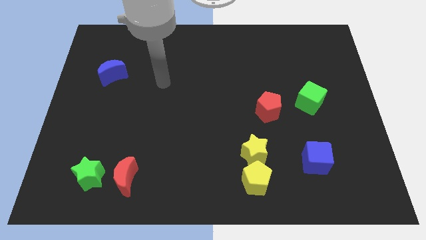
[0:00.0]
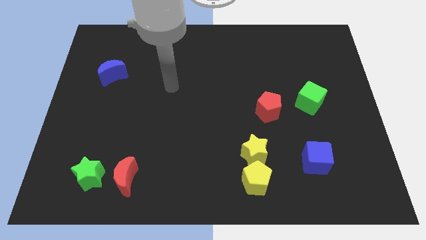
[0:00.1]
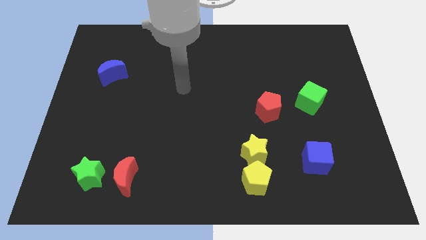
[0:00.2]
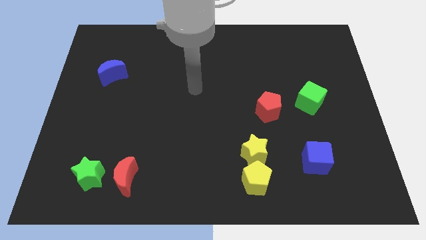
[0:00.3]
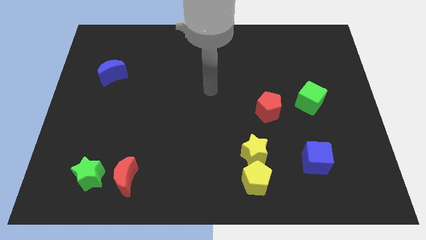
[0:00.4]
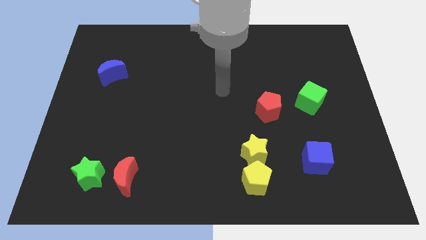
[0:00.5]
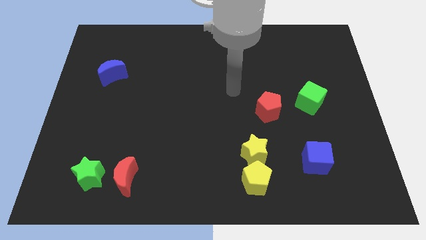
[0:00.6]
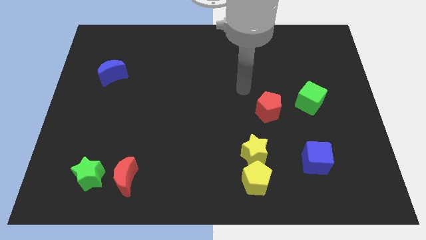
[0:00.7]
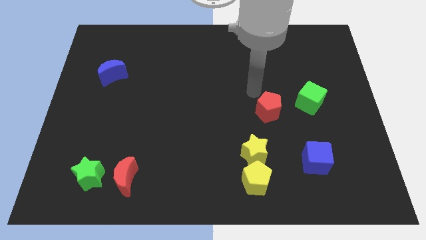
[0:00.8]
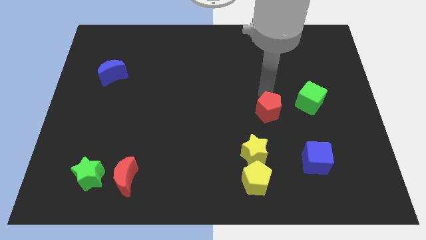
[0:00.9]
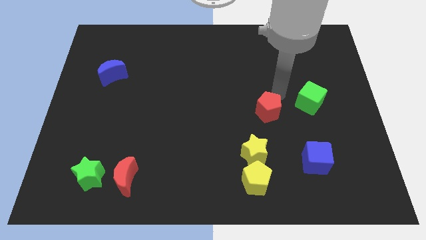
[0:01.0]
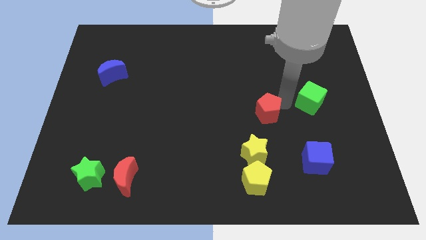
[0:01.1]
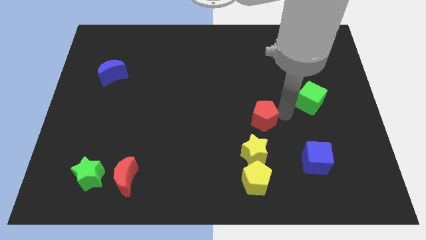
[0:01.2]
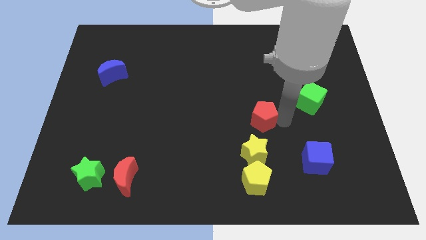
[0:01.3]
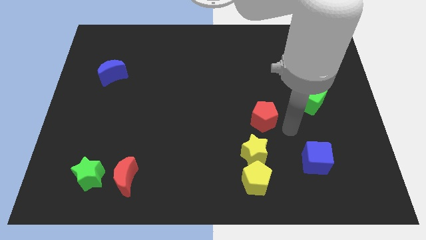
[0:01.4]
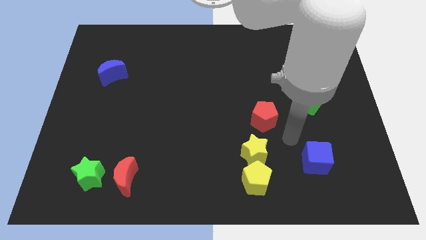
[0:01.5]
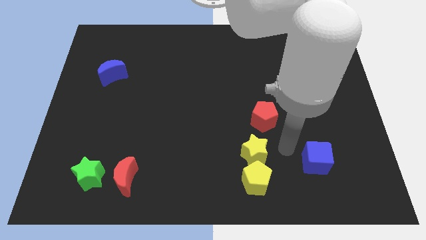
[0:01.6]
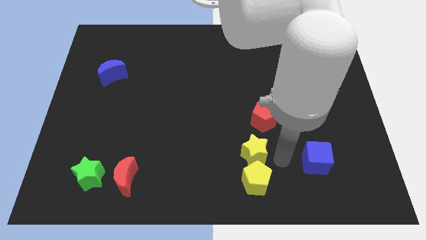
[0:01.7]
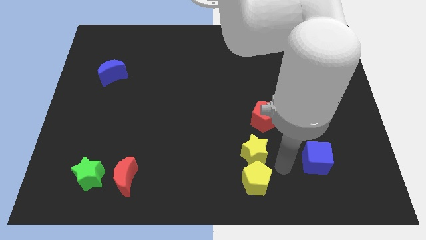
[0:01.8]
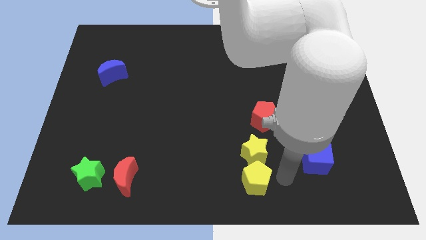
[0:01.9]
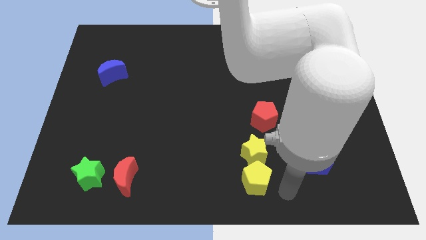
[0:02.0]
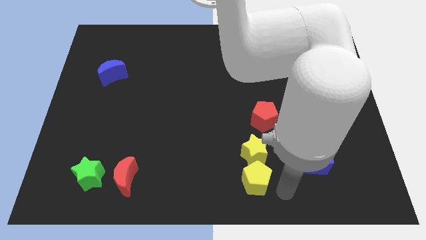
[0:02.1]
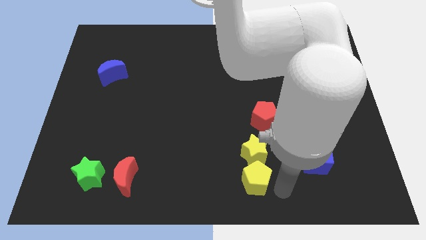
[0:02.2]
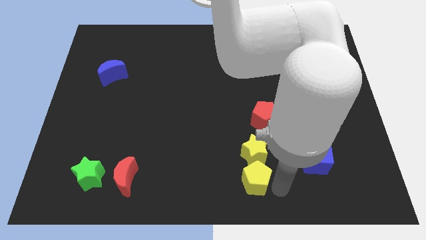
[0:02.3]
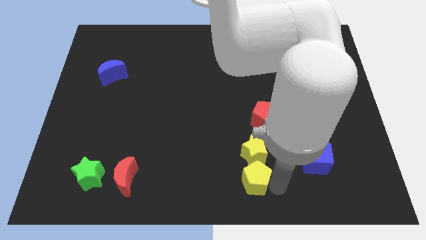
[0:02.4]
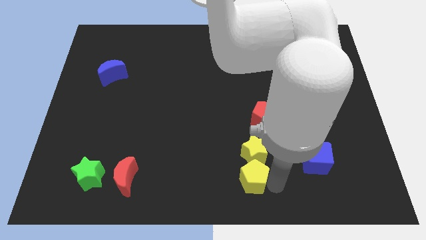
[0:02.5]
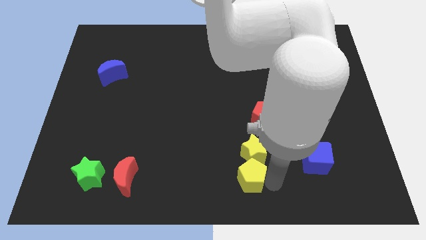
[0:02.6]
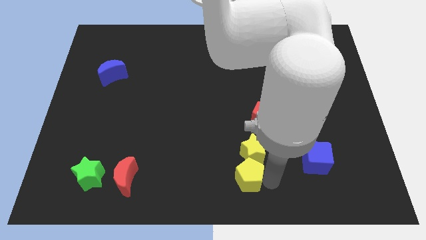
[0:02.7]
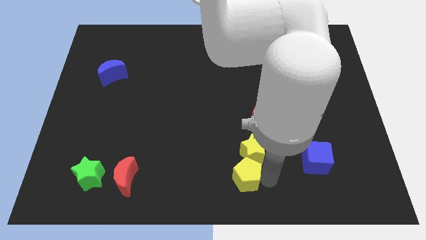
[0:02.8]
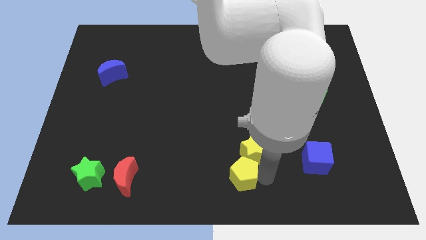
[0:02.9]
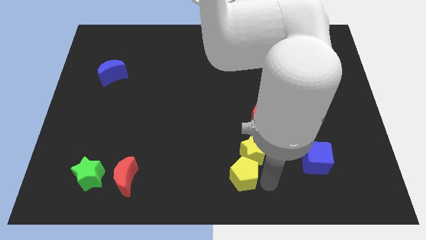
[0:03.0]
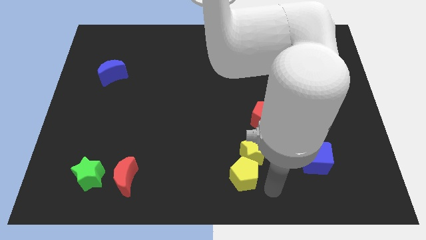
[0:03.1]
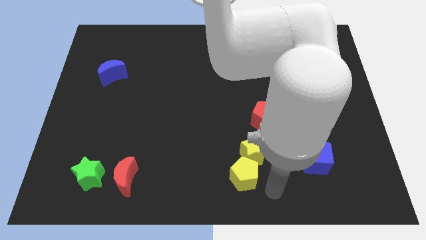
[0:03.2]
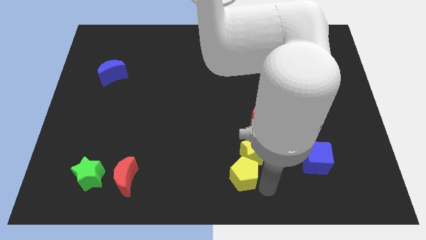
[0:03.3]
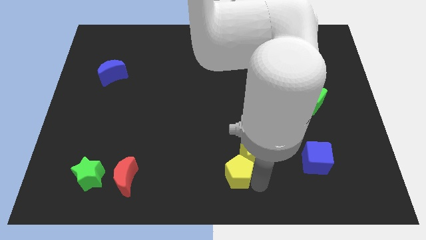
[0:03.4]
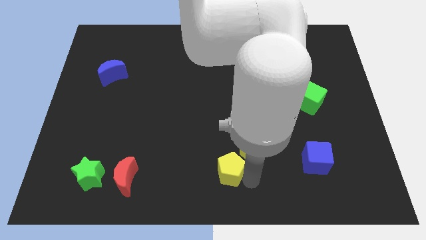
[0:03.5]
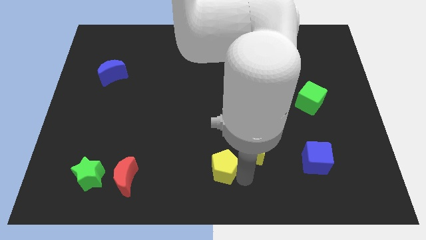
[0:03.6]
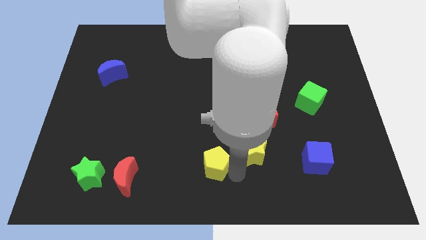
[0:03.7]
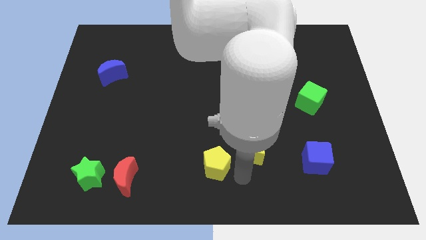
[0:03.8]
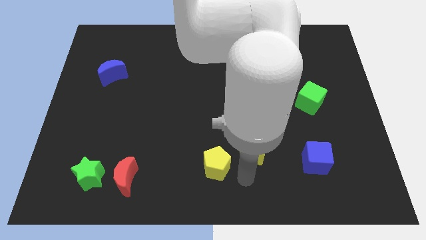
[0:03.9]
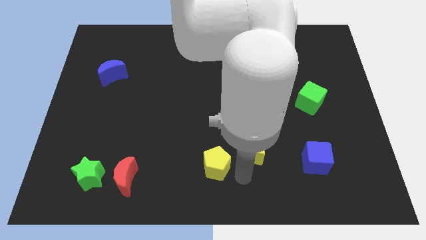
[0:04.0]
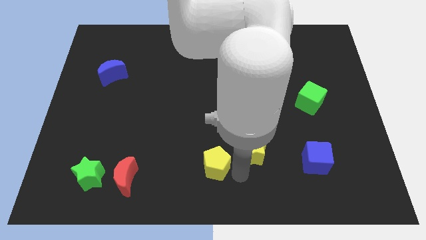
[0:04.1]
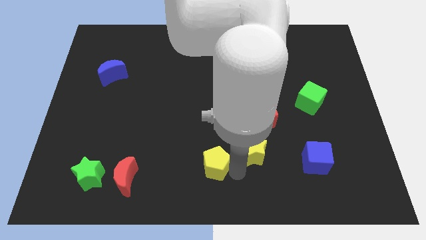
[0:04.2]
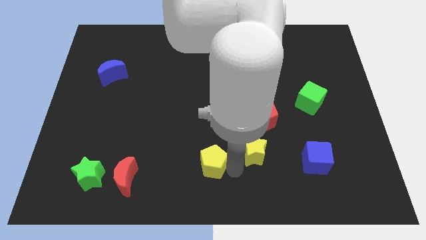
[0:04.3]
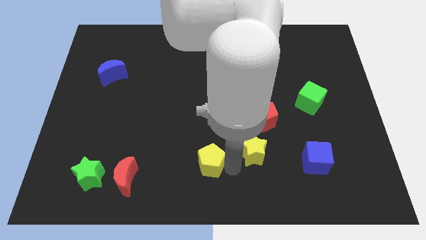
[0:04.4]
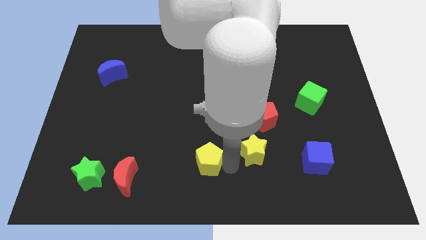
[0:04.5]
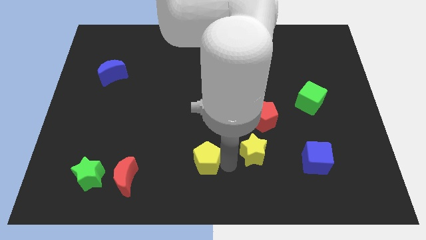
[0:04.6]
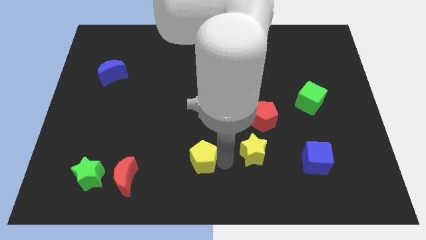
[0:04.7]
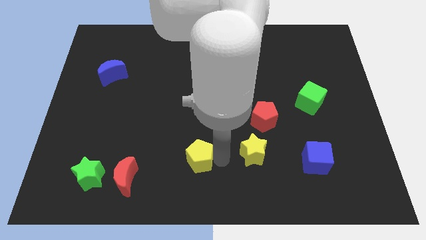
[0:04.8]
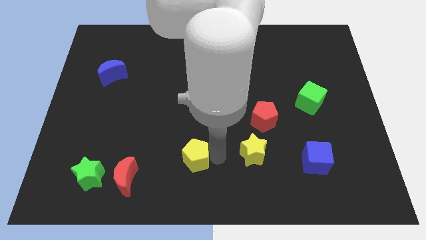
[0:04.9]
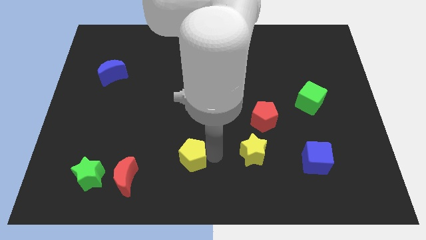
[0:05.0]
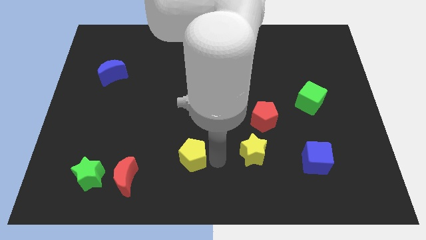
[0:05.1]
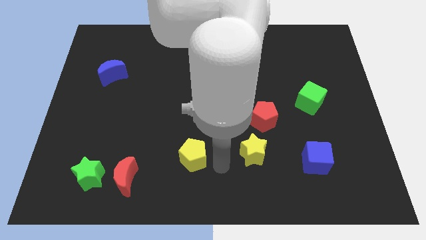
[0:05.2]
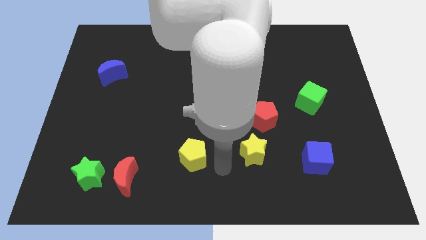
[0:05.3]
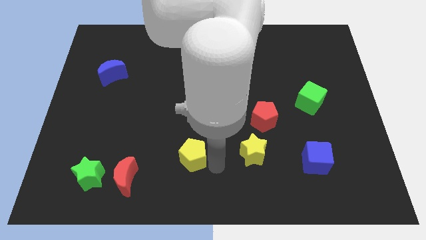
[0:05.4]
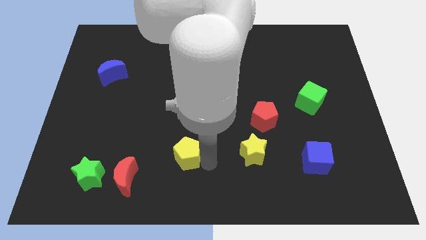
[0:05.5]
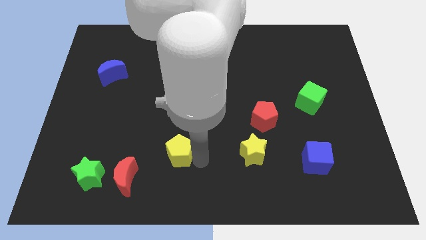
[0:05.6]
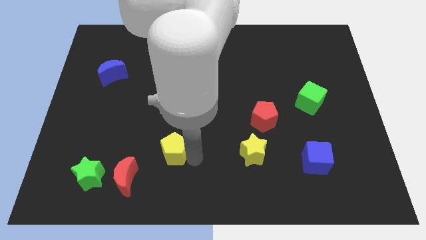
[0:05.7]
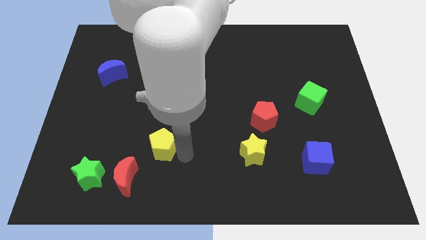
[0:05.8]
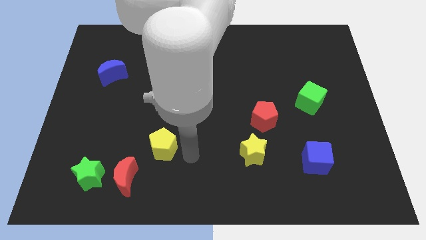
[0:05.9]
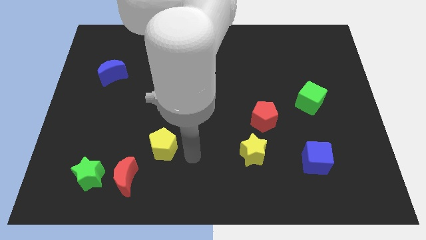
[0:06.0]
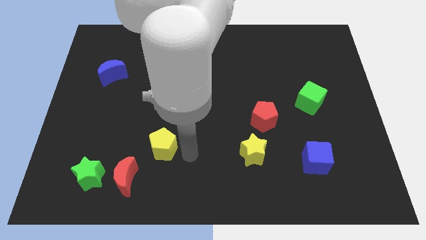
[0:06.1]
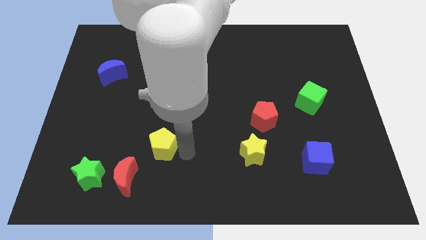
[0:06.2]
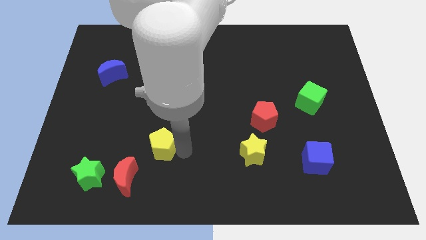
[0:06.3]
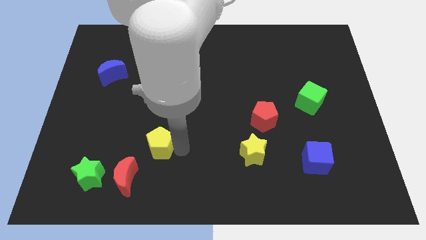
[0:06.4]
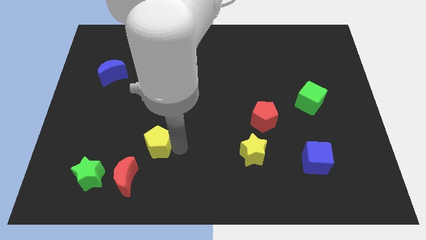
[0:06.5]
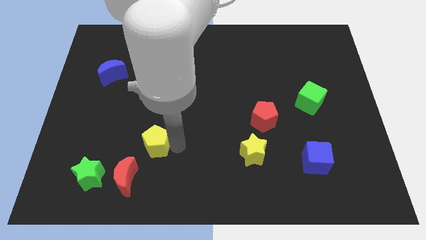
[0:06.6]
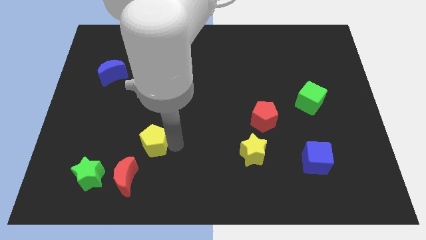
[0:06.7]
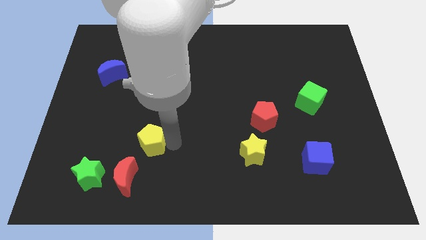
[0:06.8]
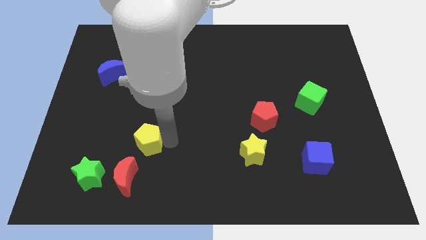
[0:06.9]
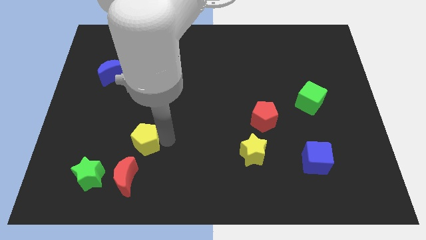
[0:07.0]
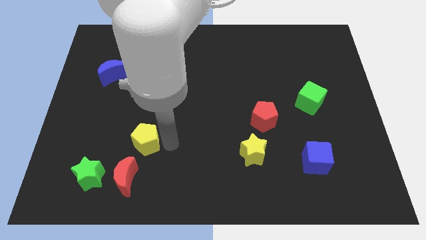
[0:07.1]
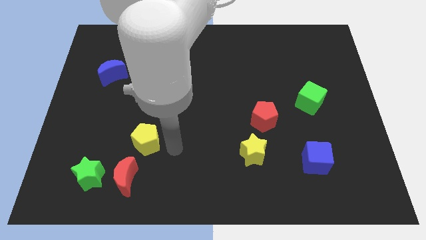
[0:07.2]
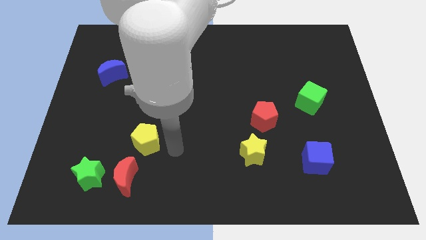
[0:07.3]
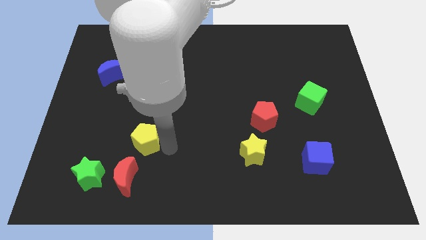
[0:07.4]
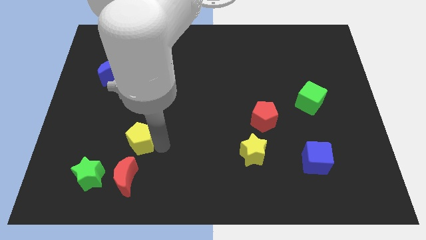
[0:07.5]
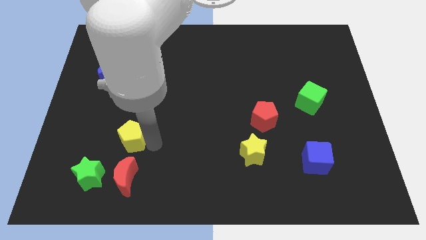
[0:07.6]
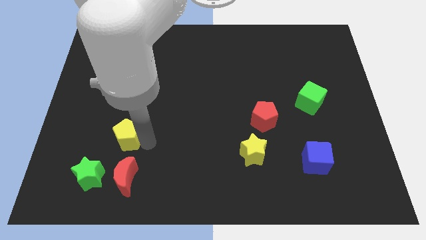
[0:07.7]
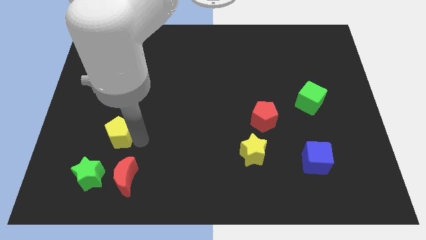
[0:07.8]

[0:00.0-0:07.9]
push the yellow pentagon to the top of the green star
